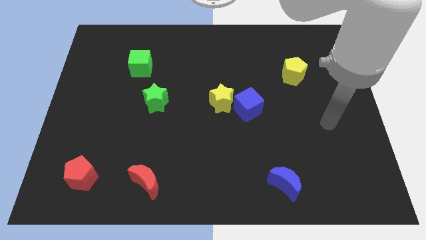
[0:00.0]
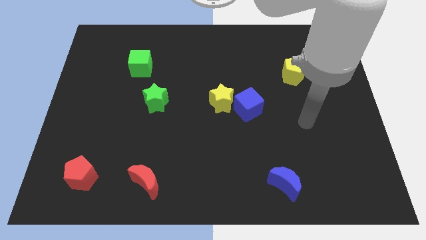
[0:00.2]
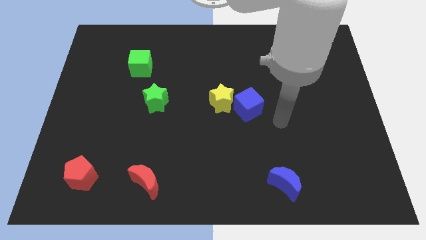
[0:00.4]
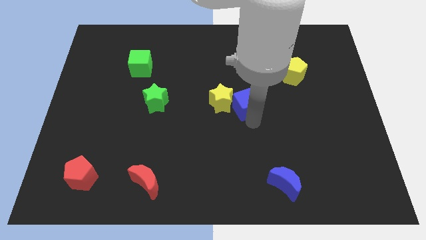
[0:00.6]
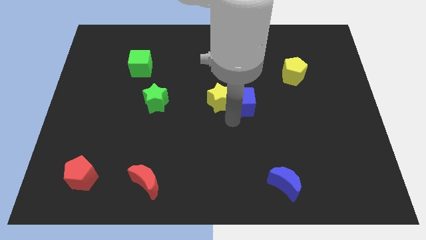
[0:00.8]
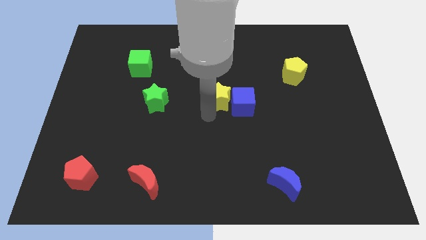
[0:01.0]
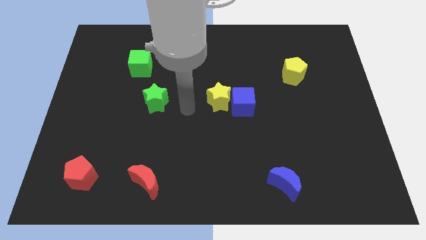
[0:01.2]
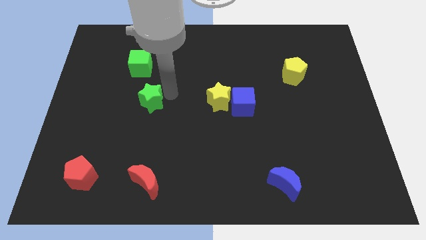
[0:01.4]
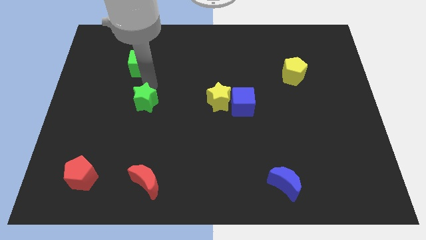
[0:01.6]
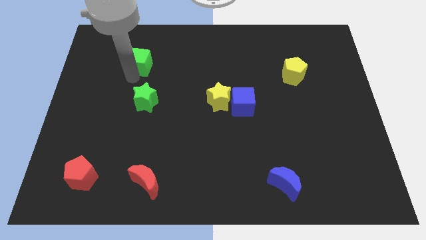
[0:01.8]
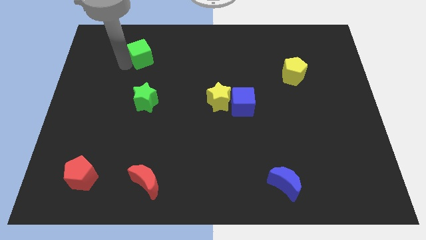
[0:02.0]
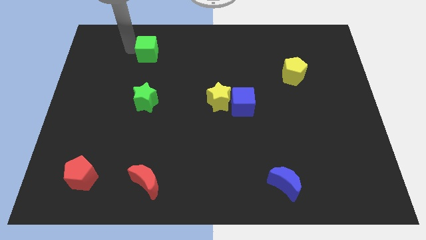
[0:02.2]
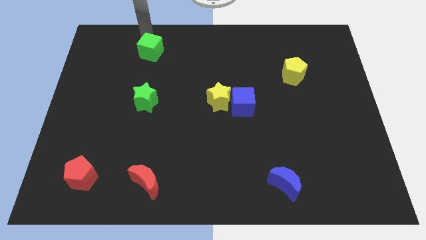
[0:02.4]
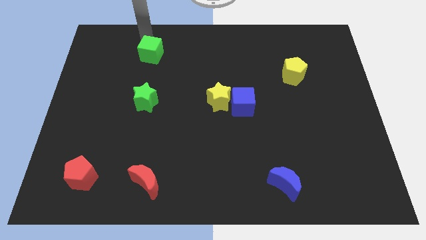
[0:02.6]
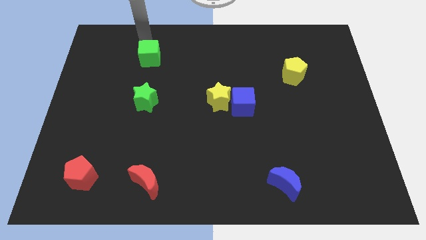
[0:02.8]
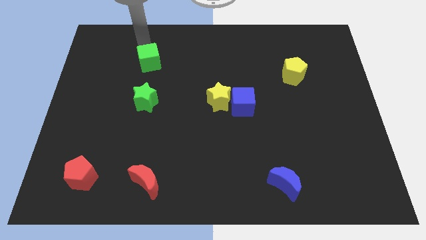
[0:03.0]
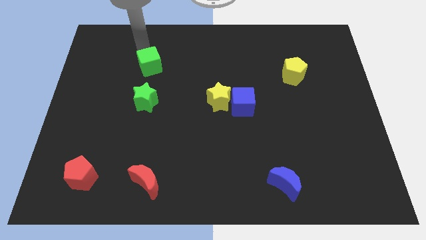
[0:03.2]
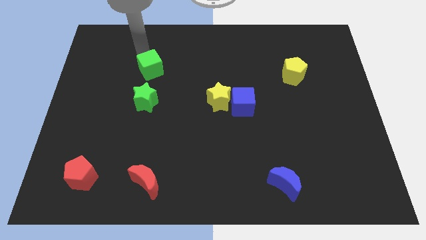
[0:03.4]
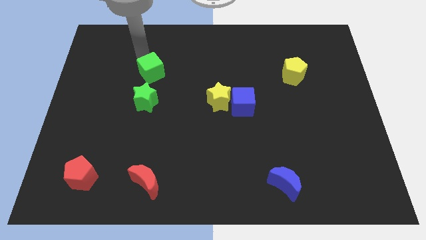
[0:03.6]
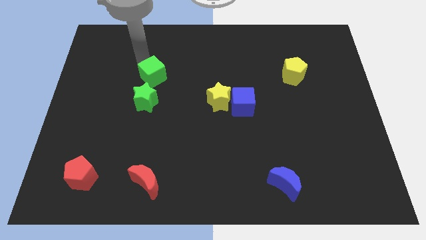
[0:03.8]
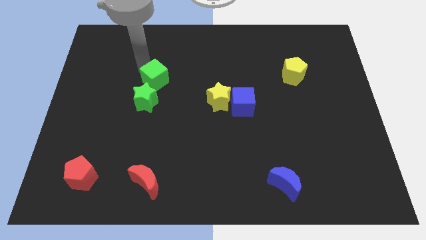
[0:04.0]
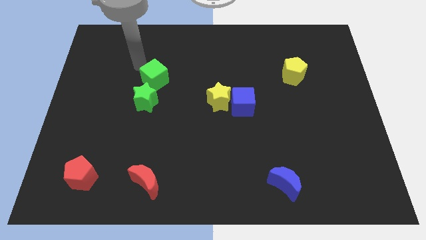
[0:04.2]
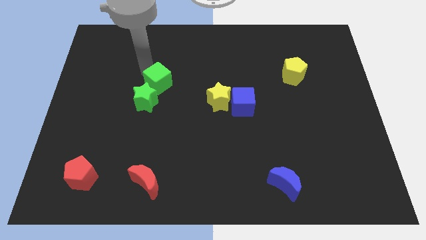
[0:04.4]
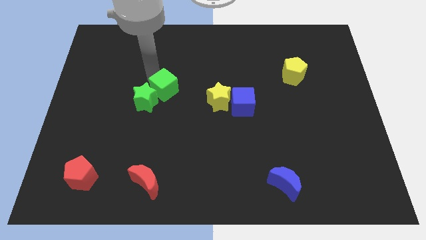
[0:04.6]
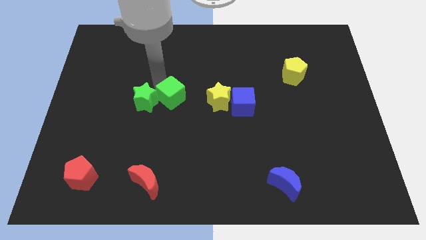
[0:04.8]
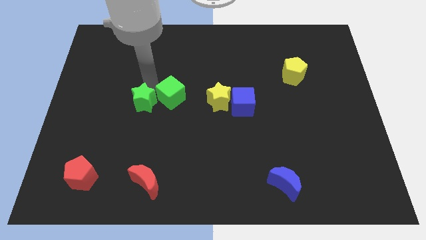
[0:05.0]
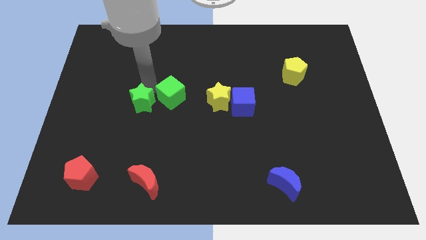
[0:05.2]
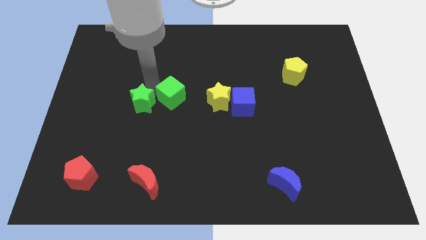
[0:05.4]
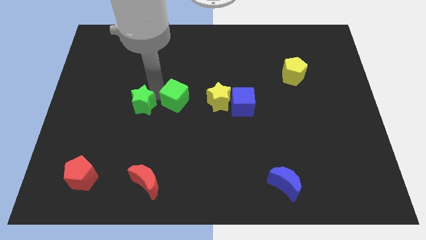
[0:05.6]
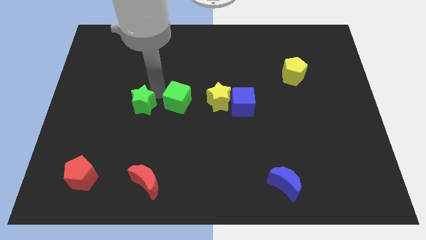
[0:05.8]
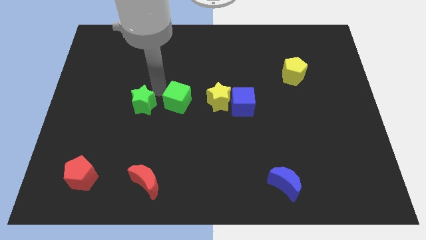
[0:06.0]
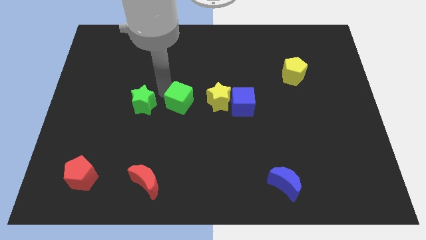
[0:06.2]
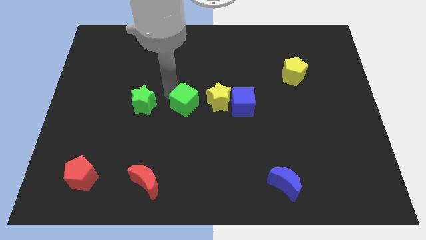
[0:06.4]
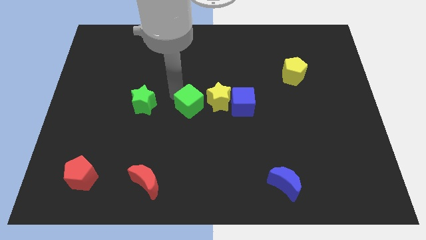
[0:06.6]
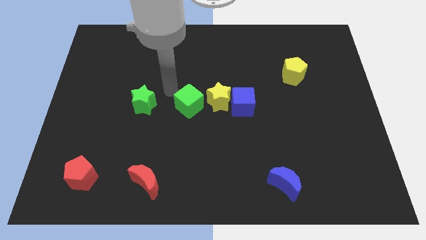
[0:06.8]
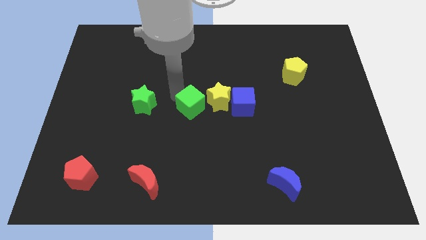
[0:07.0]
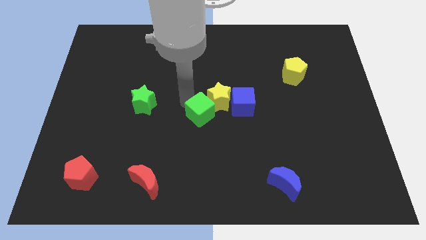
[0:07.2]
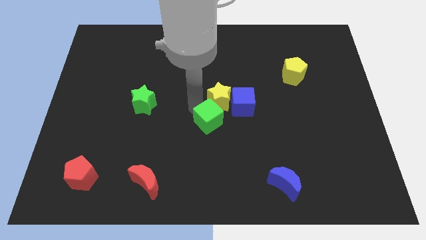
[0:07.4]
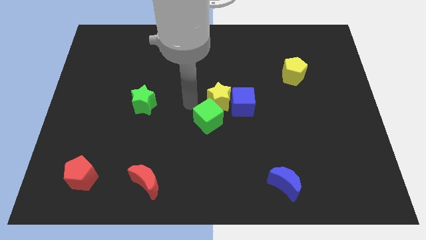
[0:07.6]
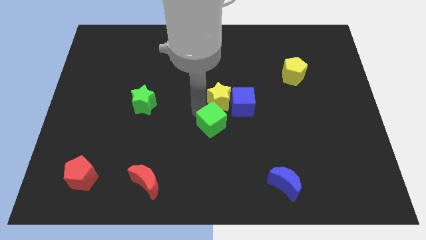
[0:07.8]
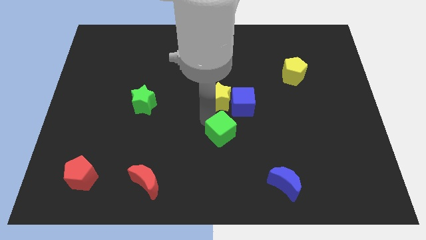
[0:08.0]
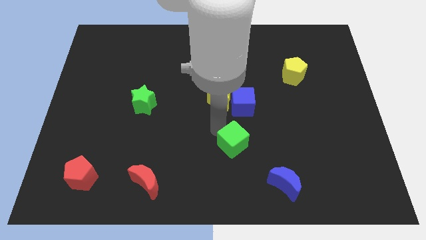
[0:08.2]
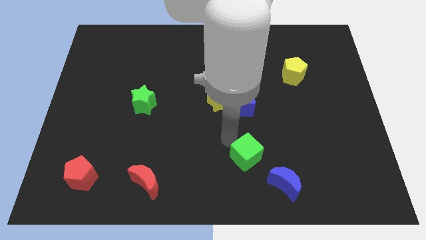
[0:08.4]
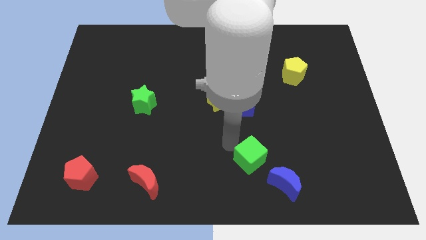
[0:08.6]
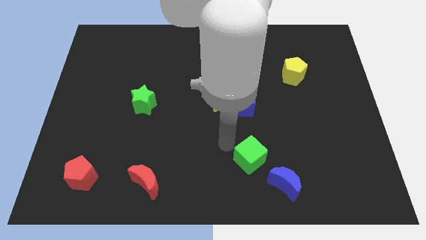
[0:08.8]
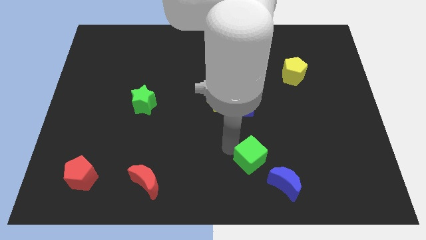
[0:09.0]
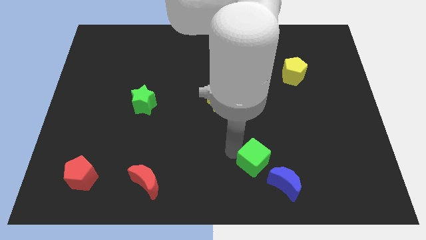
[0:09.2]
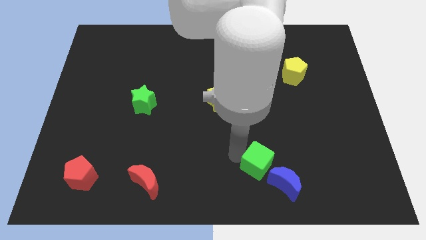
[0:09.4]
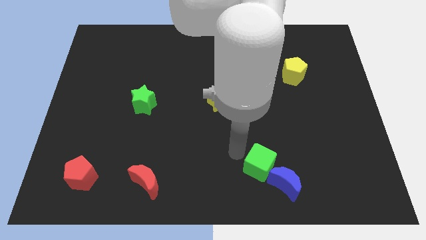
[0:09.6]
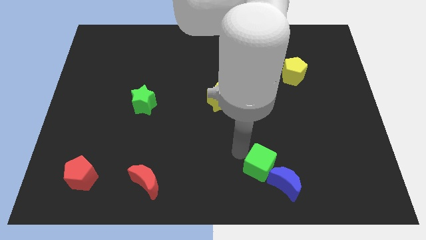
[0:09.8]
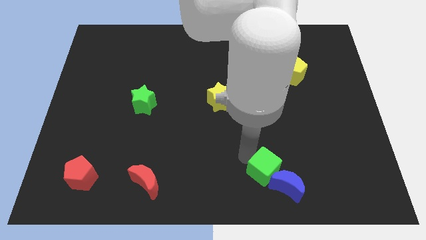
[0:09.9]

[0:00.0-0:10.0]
slide the green cube to the blue moon

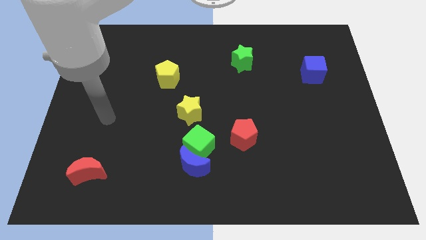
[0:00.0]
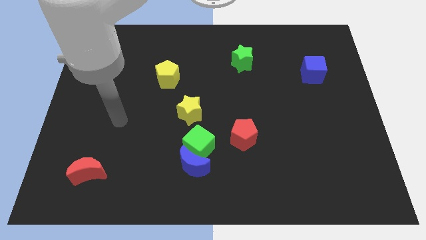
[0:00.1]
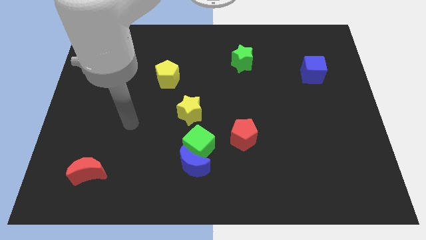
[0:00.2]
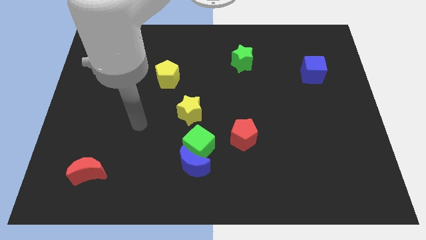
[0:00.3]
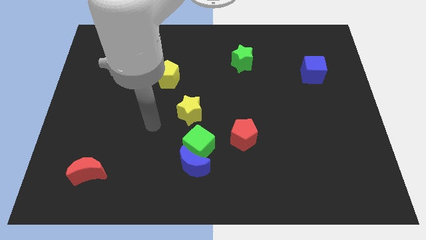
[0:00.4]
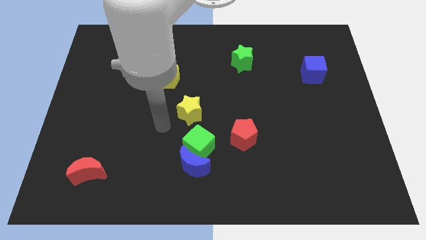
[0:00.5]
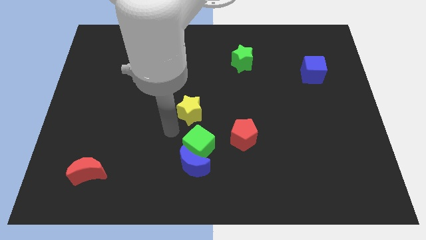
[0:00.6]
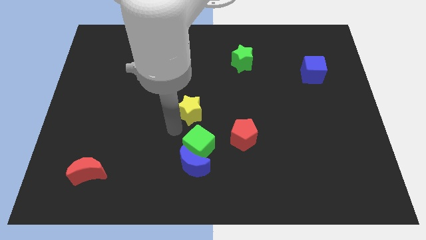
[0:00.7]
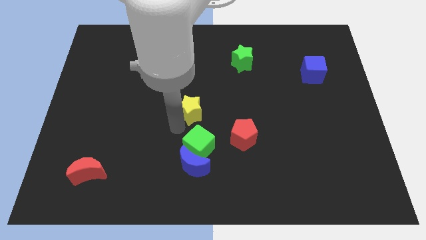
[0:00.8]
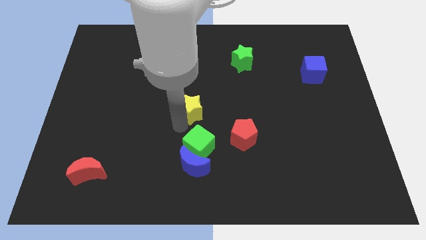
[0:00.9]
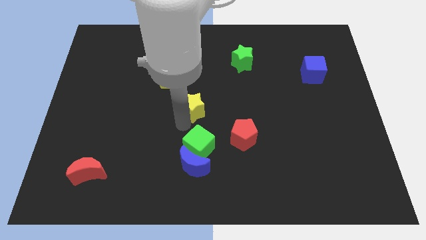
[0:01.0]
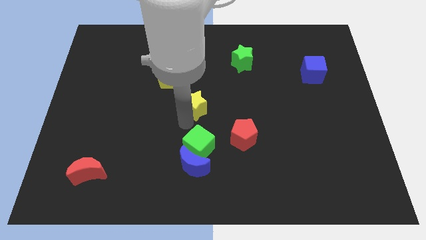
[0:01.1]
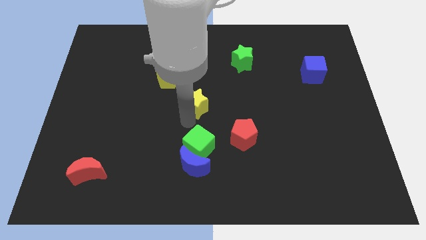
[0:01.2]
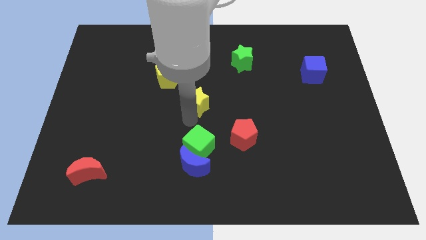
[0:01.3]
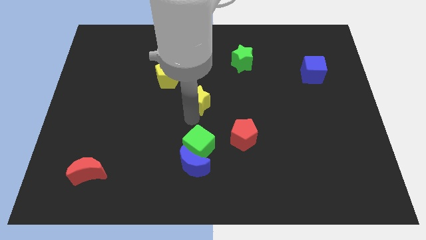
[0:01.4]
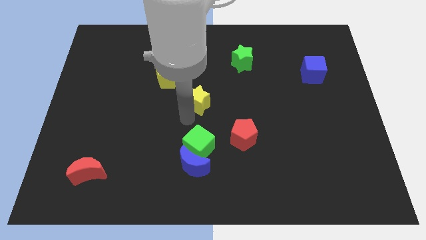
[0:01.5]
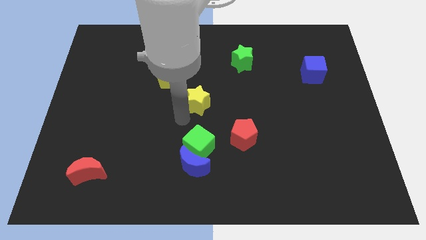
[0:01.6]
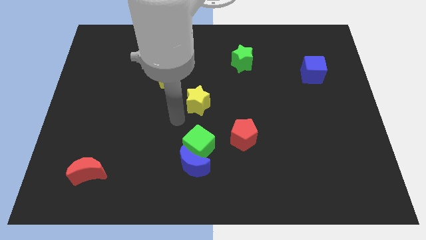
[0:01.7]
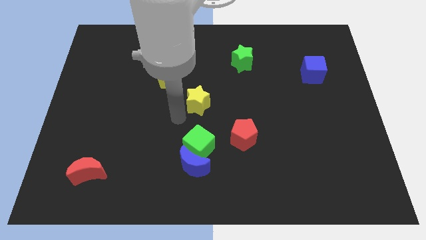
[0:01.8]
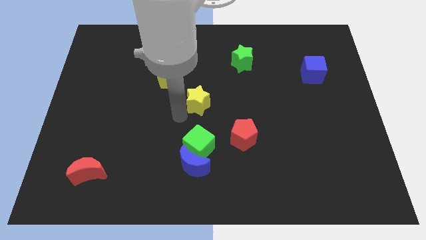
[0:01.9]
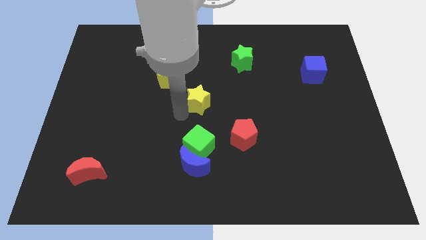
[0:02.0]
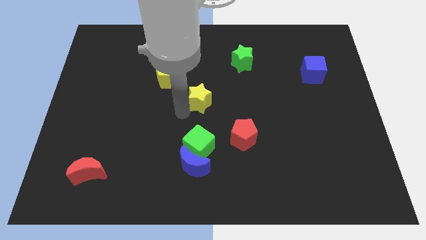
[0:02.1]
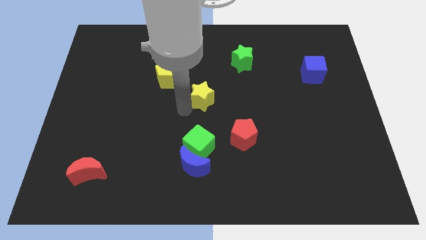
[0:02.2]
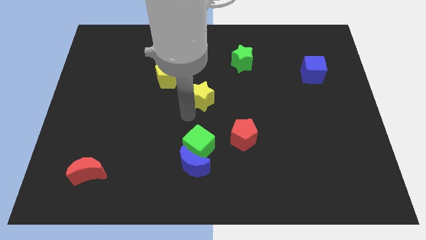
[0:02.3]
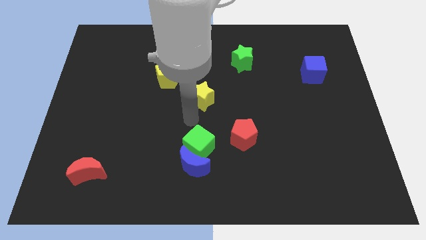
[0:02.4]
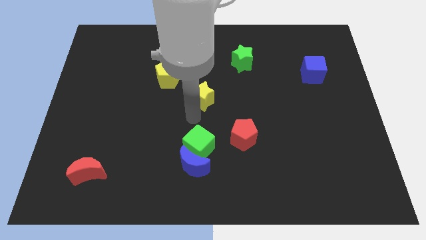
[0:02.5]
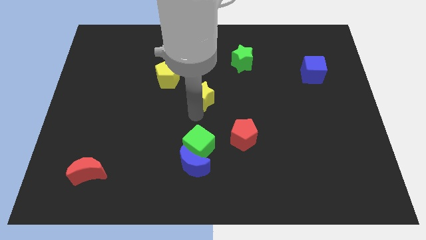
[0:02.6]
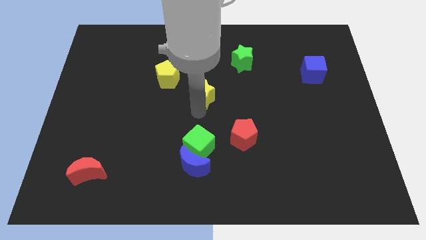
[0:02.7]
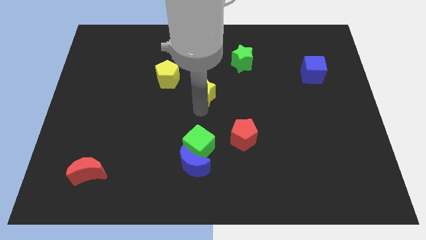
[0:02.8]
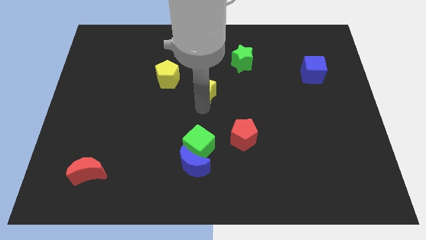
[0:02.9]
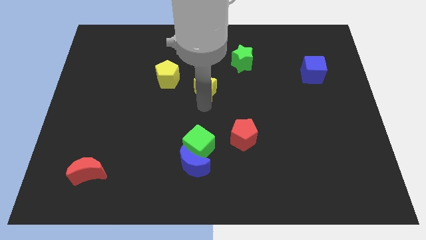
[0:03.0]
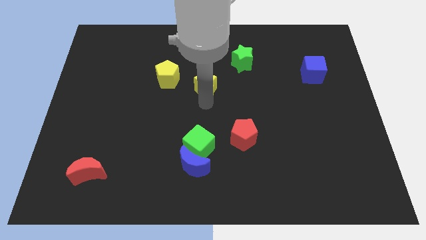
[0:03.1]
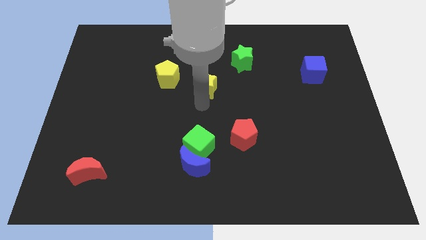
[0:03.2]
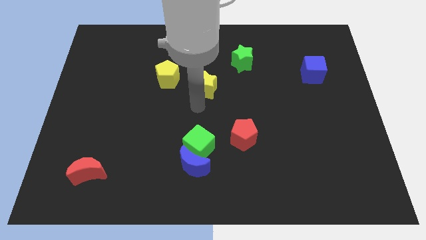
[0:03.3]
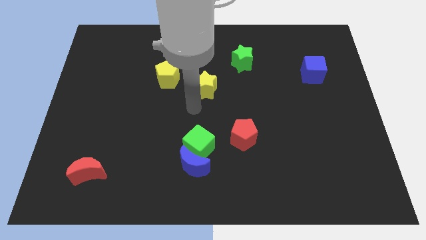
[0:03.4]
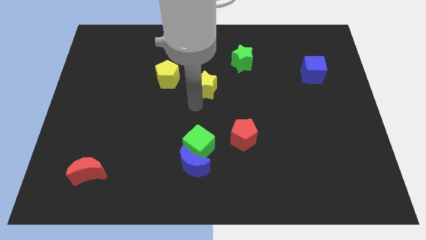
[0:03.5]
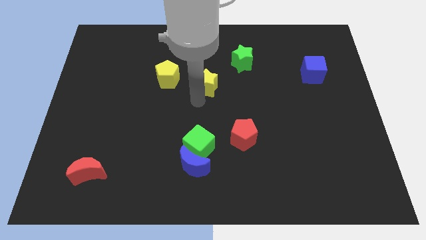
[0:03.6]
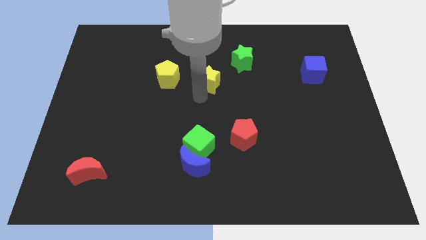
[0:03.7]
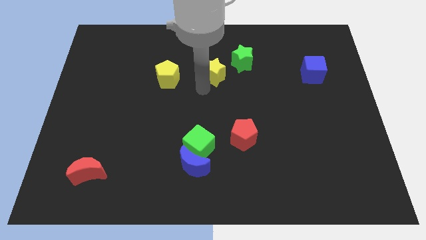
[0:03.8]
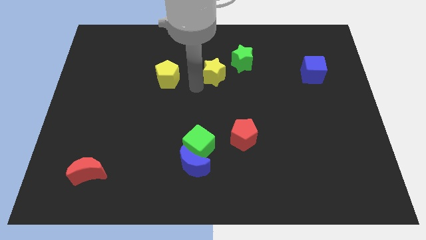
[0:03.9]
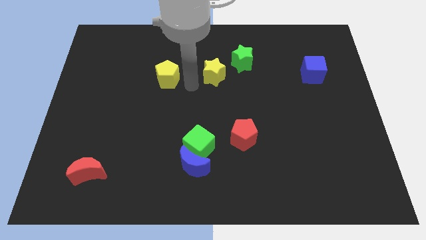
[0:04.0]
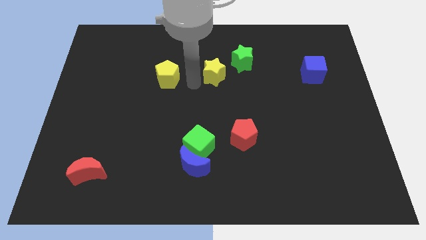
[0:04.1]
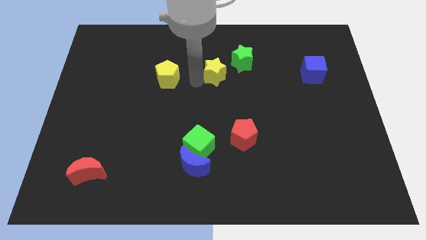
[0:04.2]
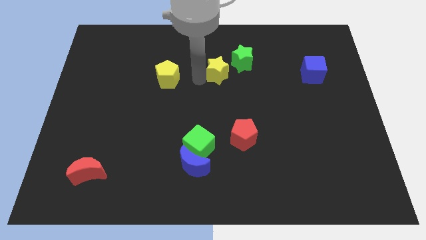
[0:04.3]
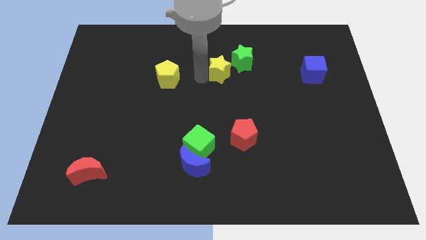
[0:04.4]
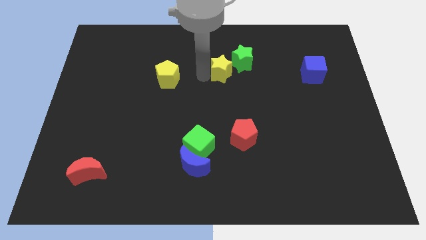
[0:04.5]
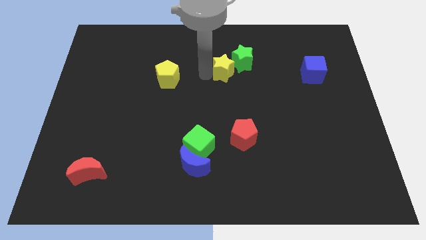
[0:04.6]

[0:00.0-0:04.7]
slide the yellow star close to the green star
